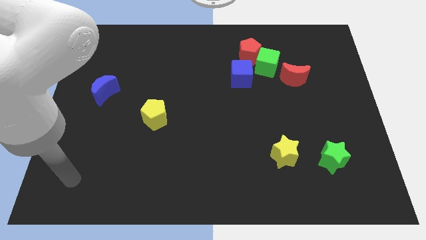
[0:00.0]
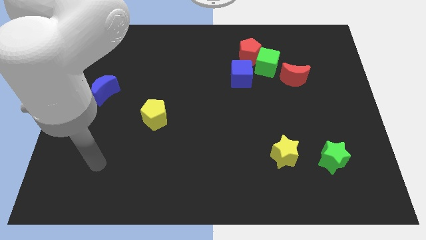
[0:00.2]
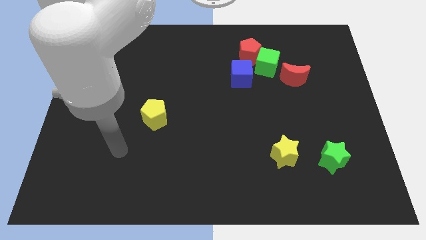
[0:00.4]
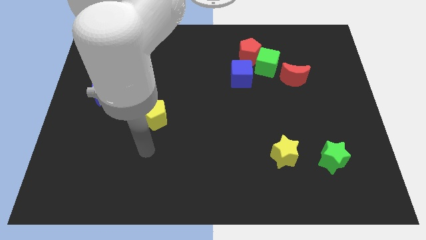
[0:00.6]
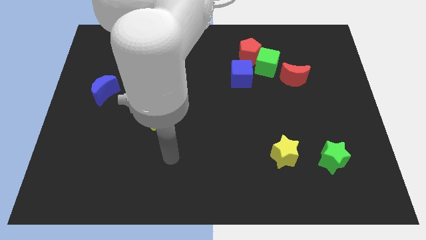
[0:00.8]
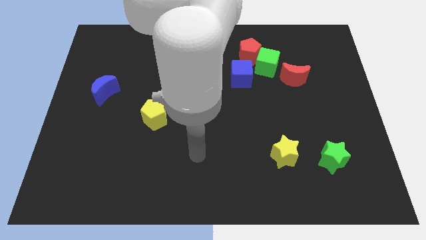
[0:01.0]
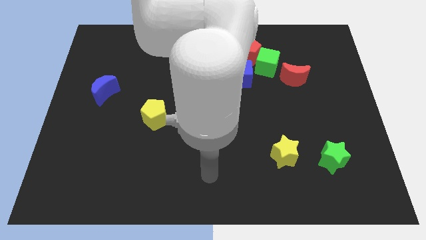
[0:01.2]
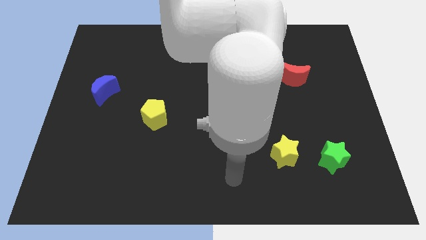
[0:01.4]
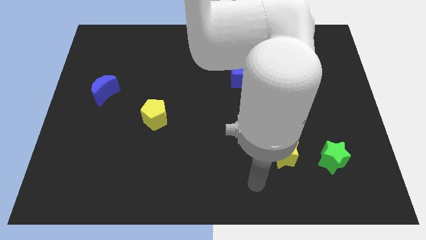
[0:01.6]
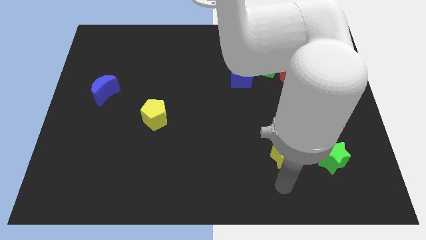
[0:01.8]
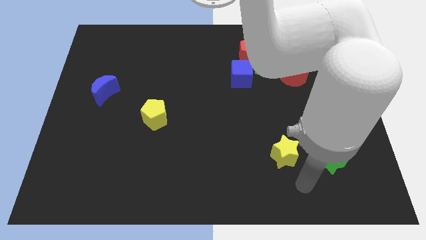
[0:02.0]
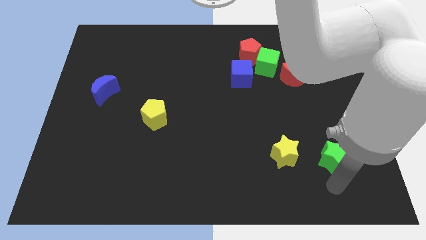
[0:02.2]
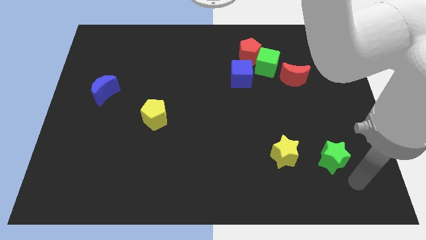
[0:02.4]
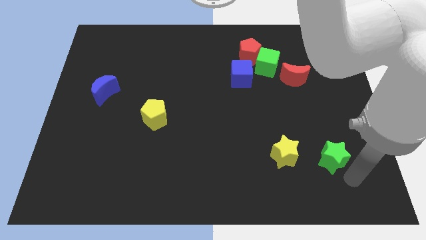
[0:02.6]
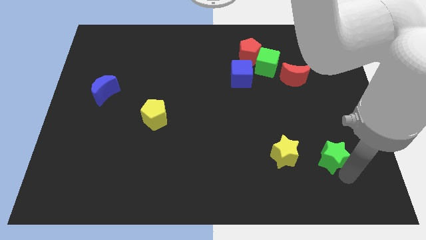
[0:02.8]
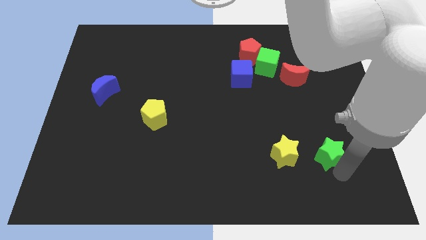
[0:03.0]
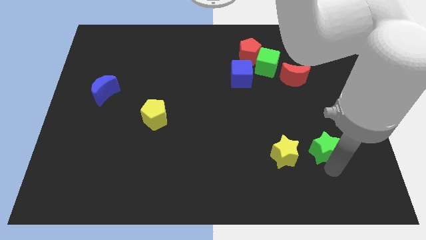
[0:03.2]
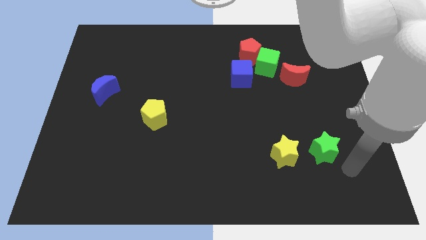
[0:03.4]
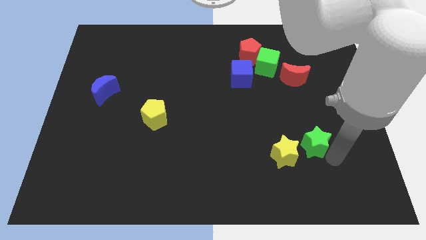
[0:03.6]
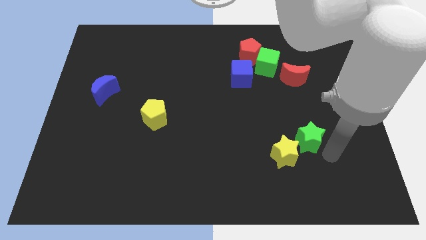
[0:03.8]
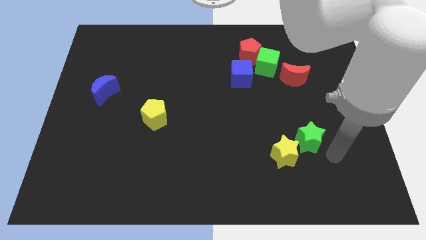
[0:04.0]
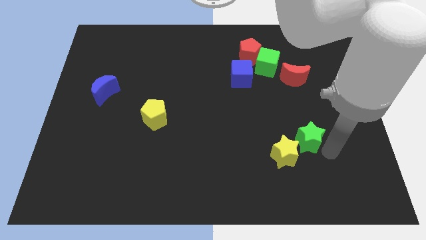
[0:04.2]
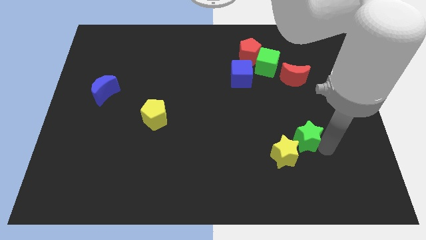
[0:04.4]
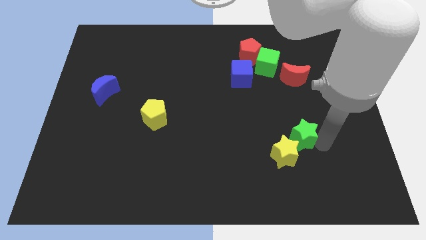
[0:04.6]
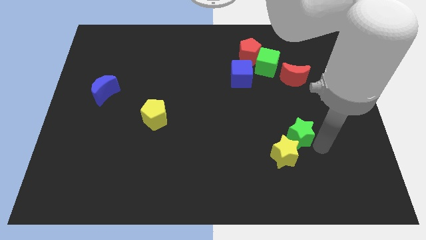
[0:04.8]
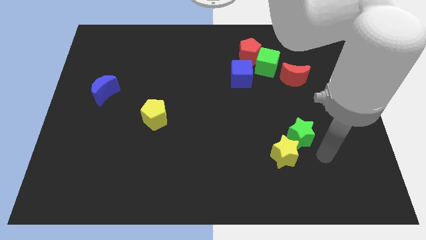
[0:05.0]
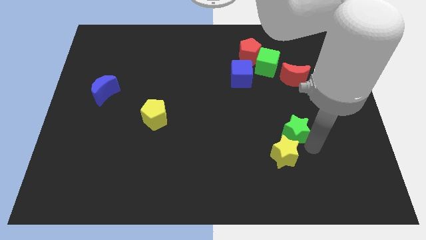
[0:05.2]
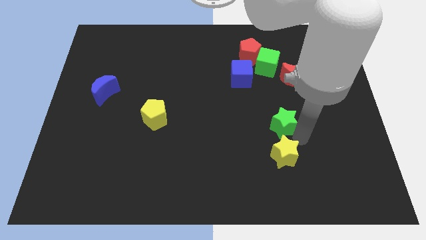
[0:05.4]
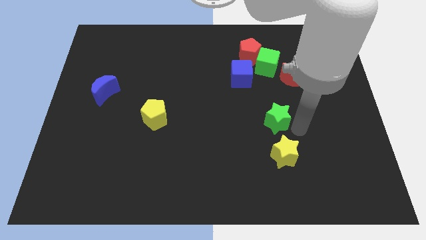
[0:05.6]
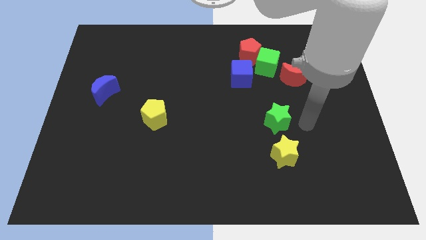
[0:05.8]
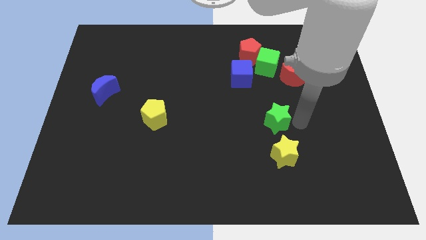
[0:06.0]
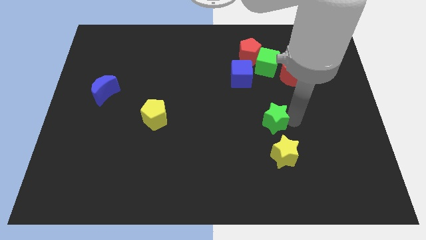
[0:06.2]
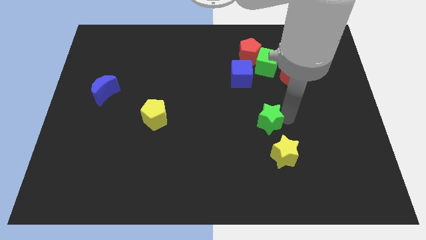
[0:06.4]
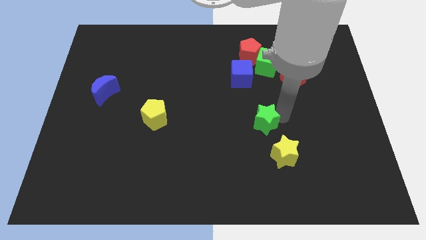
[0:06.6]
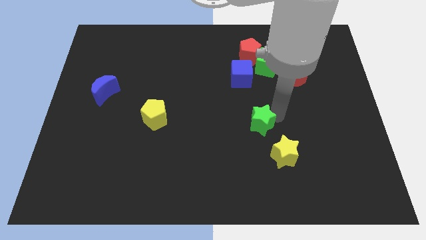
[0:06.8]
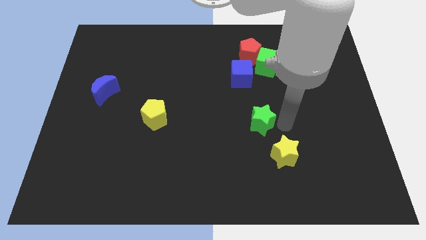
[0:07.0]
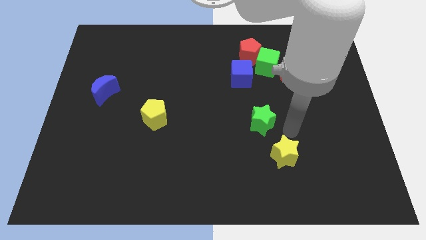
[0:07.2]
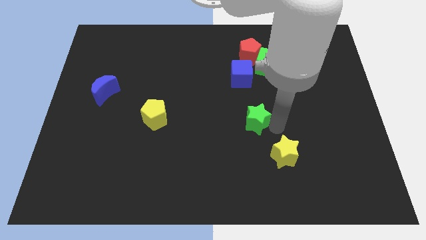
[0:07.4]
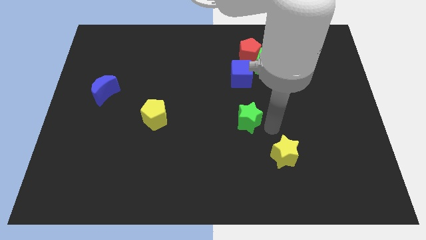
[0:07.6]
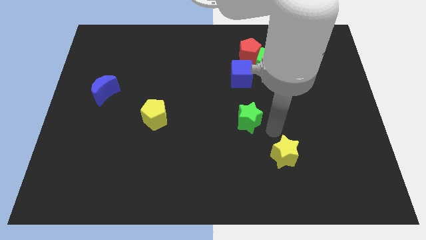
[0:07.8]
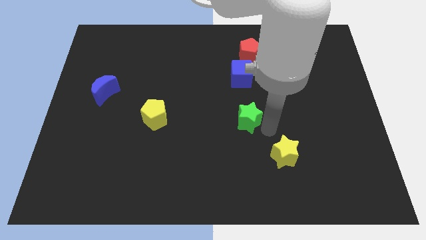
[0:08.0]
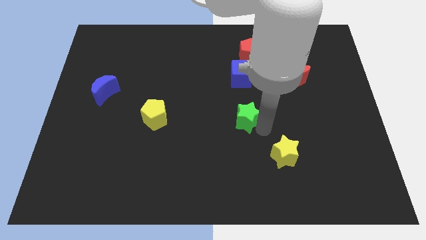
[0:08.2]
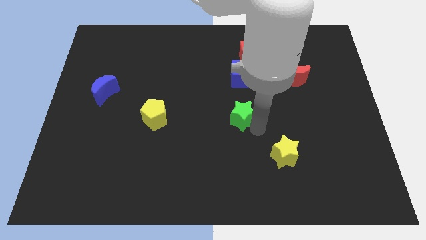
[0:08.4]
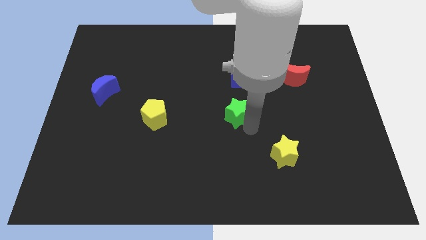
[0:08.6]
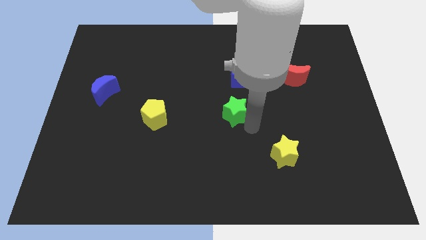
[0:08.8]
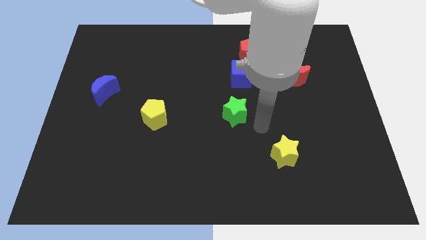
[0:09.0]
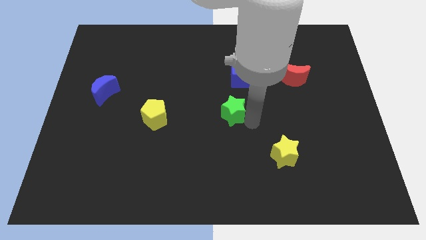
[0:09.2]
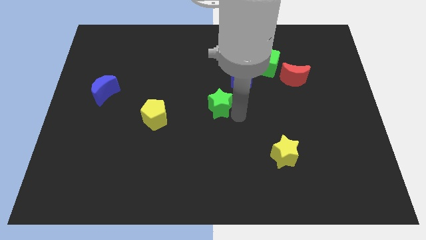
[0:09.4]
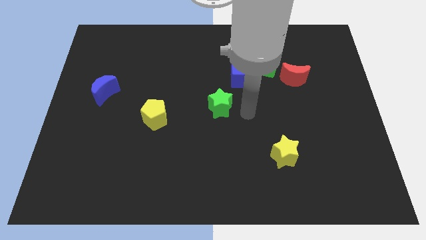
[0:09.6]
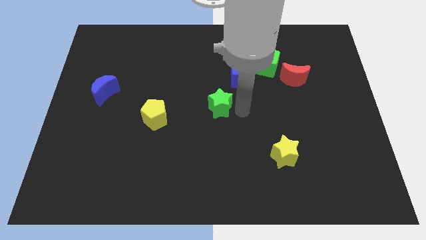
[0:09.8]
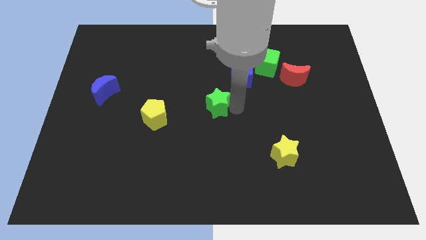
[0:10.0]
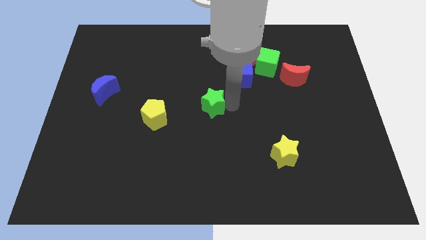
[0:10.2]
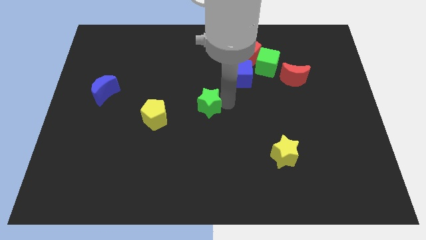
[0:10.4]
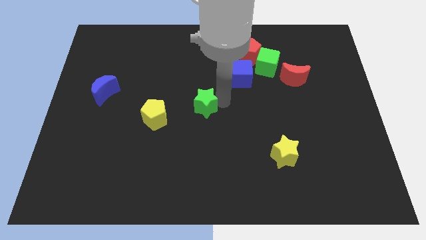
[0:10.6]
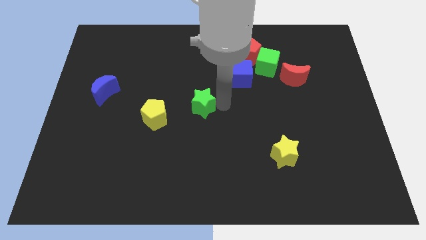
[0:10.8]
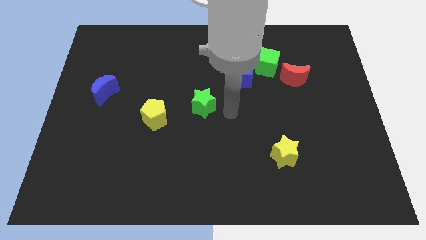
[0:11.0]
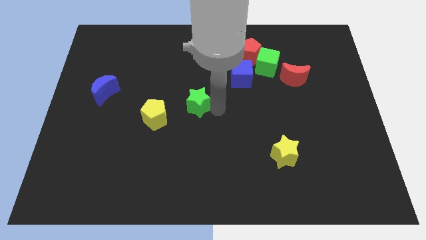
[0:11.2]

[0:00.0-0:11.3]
push the green star diagonally up and to the right of the yellow pentagon

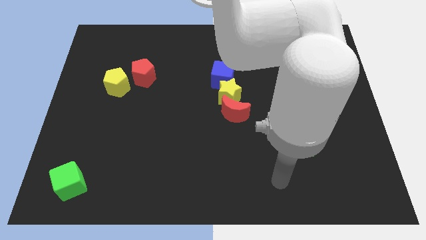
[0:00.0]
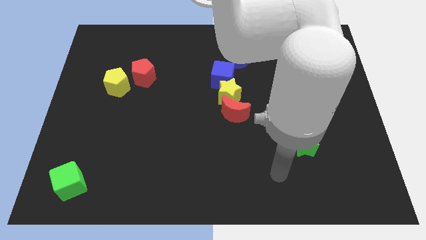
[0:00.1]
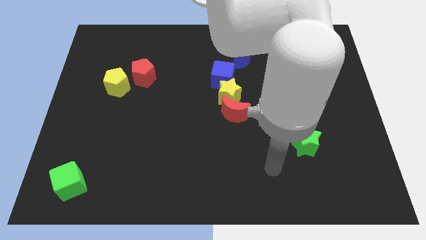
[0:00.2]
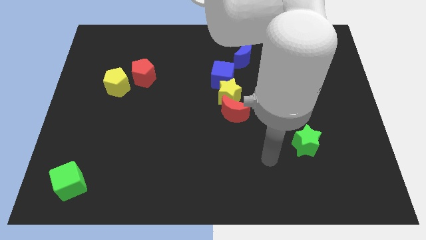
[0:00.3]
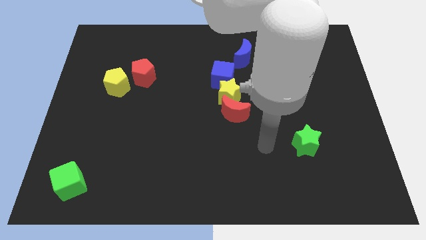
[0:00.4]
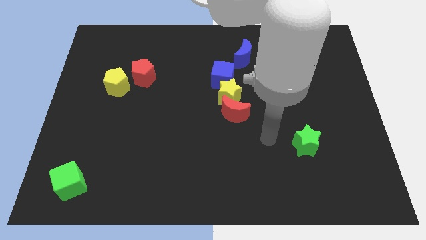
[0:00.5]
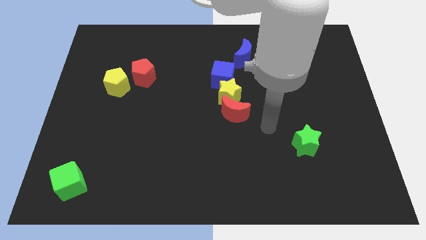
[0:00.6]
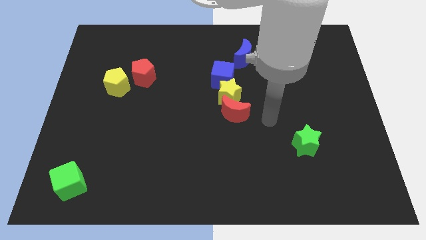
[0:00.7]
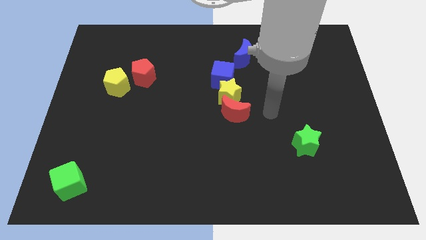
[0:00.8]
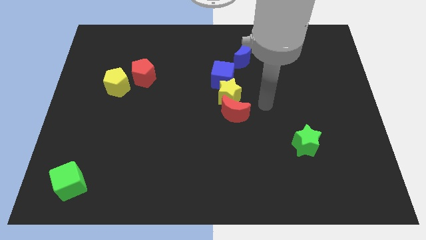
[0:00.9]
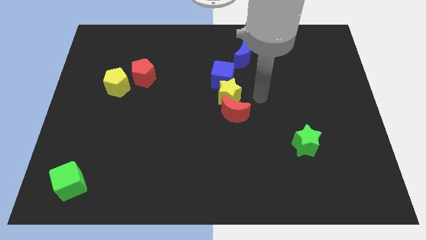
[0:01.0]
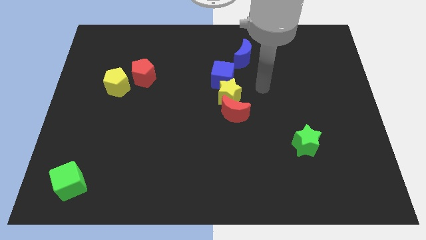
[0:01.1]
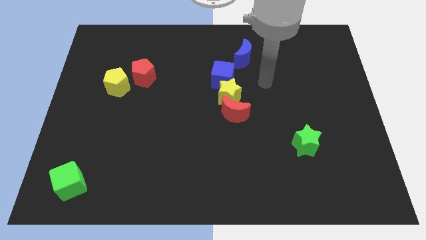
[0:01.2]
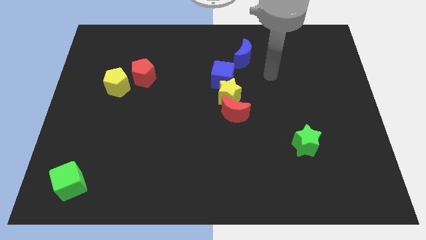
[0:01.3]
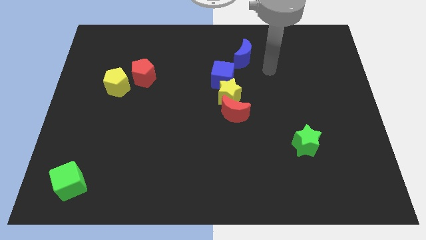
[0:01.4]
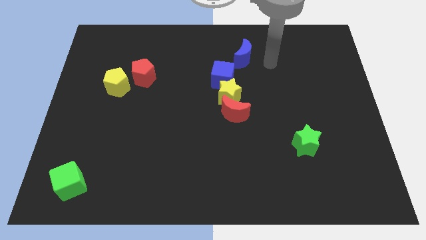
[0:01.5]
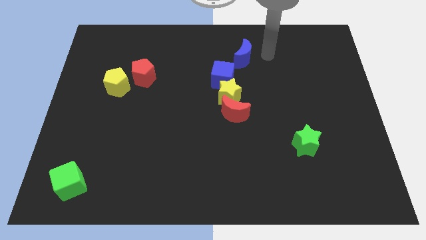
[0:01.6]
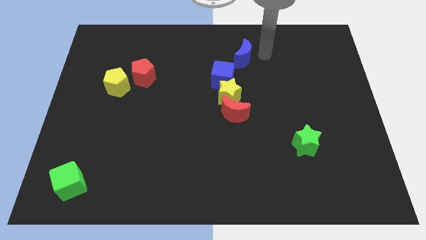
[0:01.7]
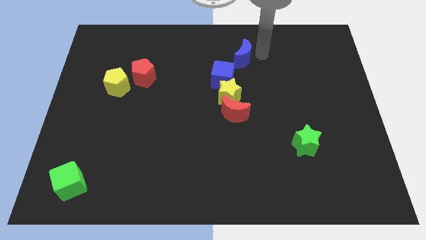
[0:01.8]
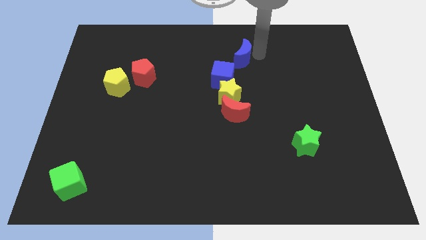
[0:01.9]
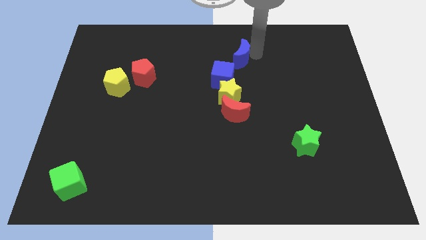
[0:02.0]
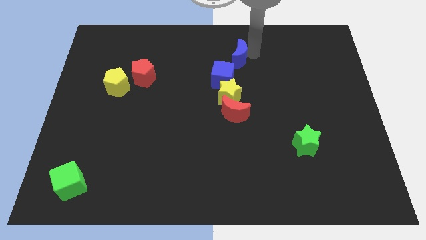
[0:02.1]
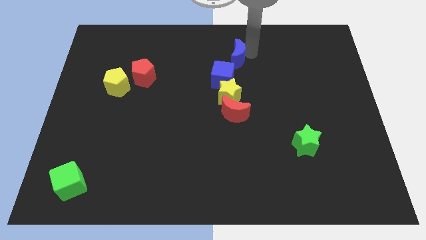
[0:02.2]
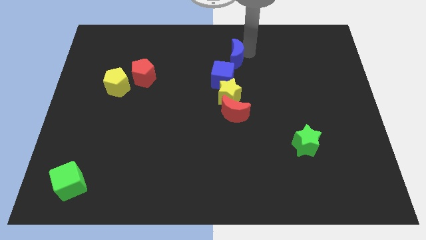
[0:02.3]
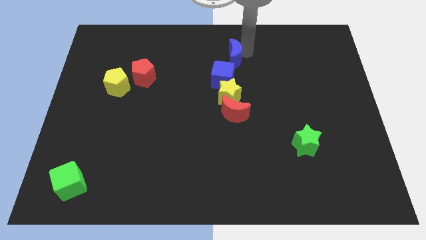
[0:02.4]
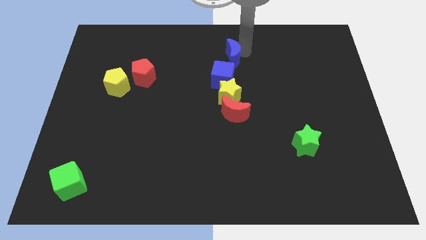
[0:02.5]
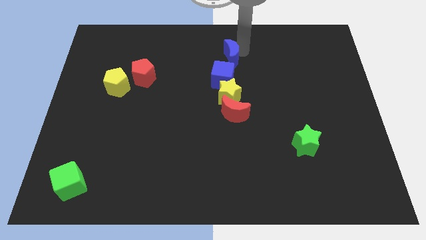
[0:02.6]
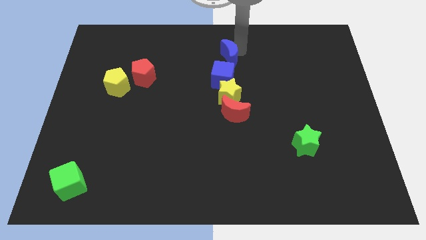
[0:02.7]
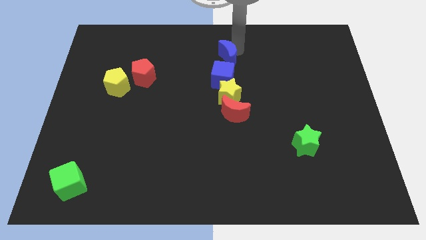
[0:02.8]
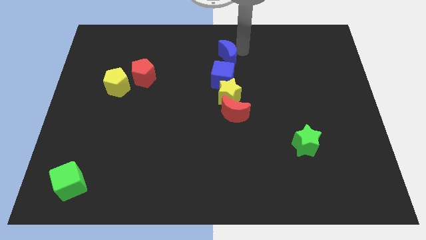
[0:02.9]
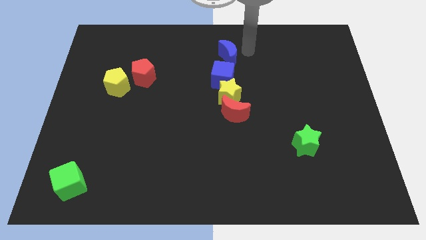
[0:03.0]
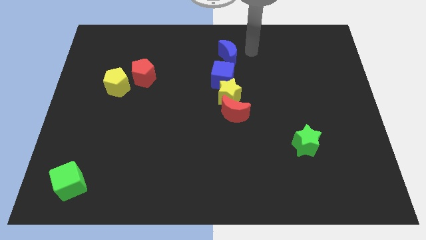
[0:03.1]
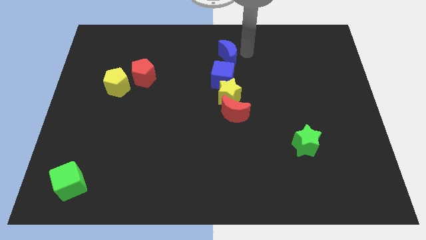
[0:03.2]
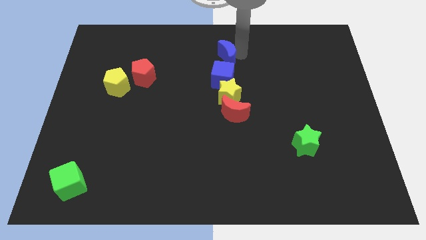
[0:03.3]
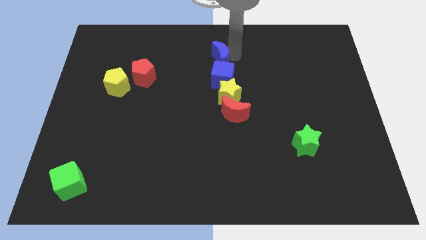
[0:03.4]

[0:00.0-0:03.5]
push the blue moon to the top left of the blue cube
